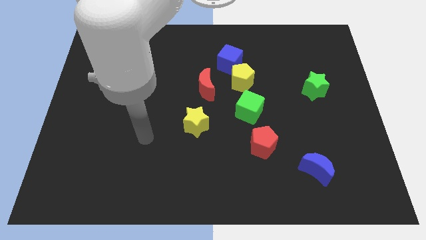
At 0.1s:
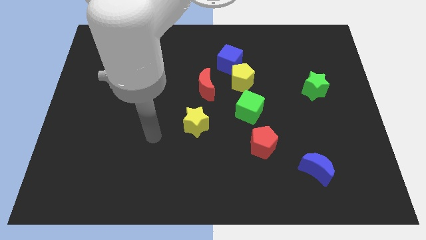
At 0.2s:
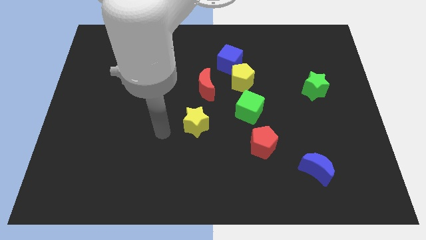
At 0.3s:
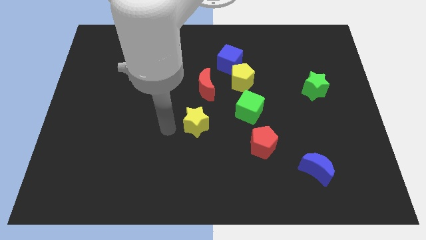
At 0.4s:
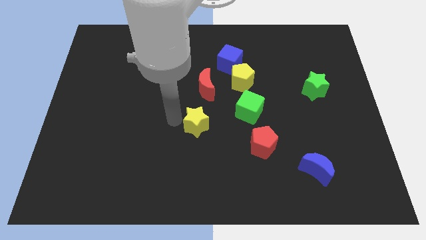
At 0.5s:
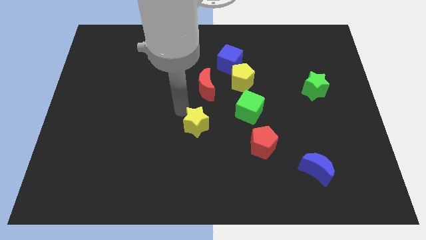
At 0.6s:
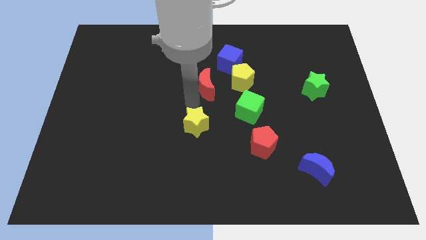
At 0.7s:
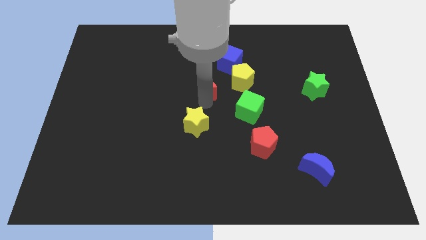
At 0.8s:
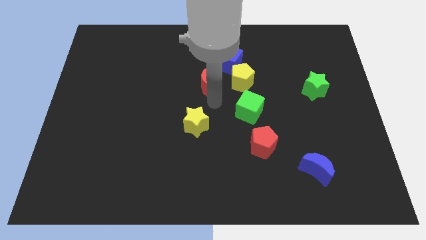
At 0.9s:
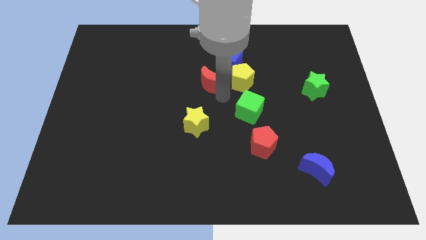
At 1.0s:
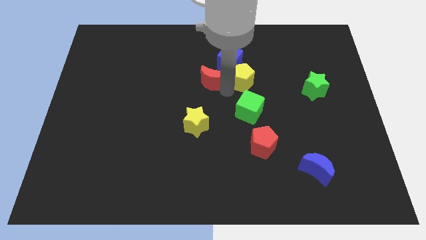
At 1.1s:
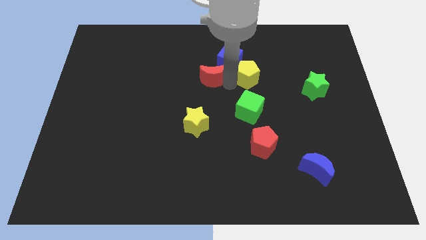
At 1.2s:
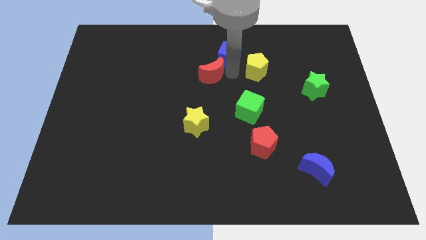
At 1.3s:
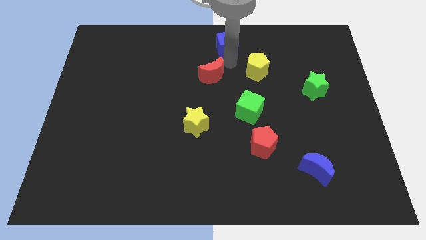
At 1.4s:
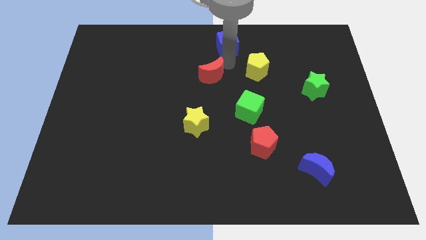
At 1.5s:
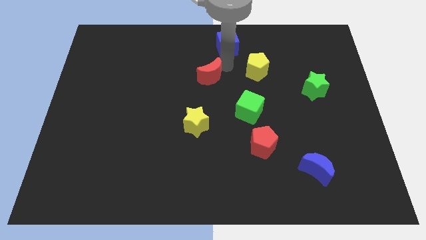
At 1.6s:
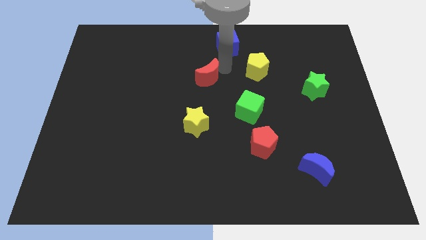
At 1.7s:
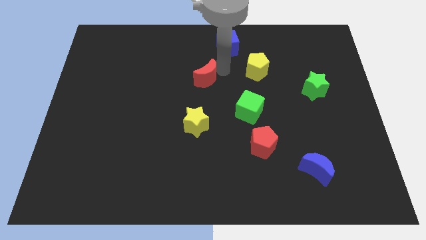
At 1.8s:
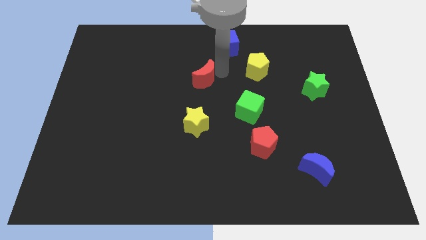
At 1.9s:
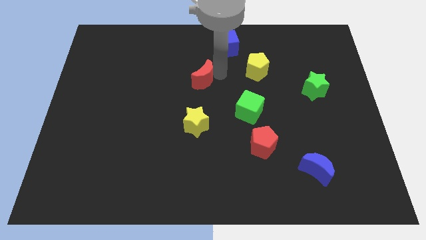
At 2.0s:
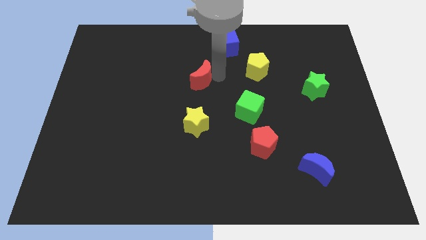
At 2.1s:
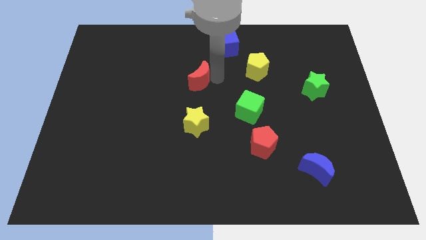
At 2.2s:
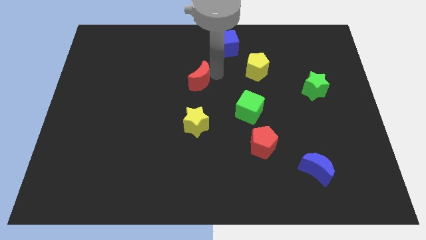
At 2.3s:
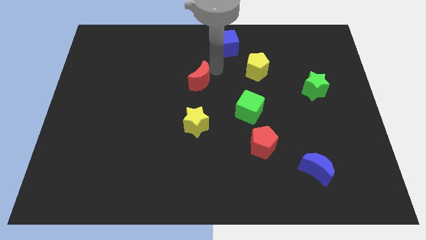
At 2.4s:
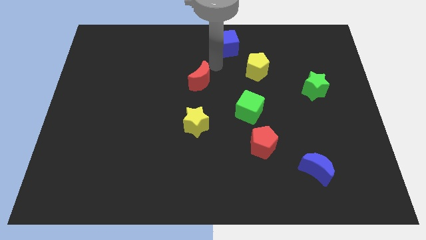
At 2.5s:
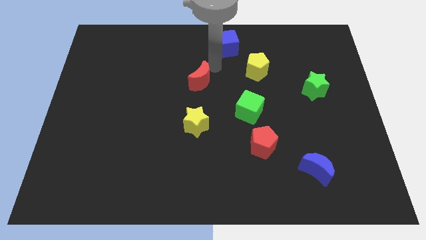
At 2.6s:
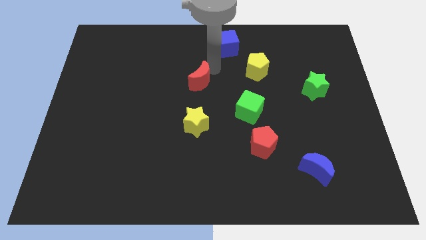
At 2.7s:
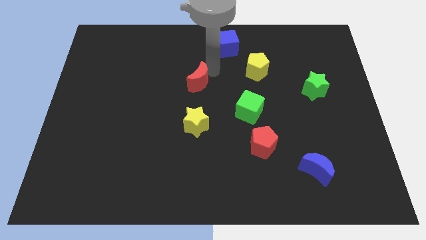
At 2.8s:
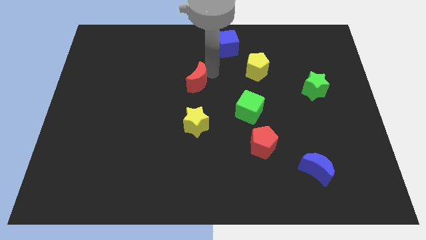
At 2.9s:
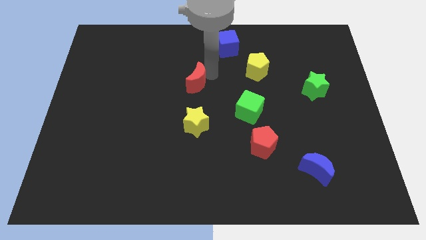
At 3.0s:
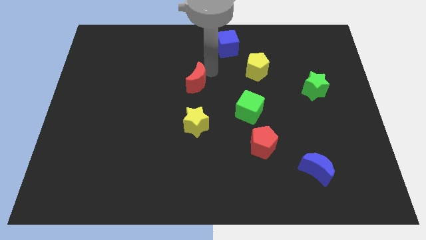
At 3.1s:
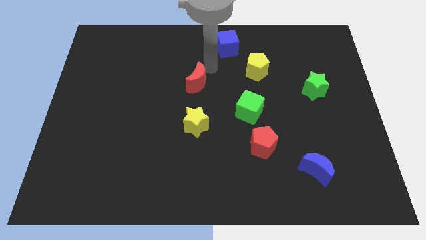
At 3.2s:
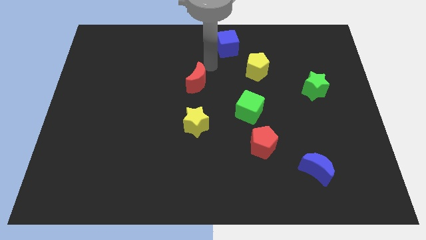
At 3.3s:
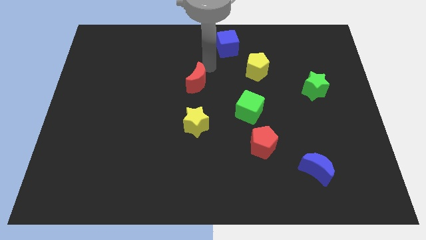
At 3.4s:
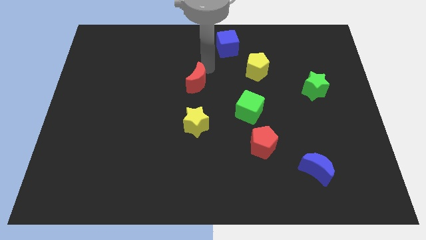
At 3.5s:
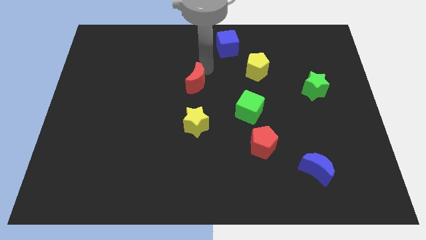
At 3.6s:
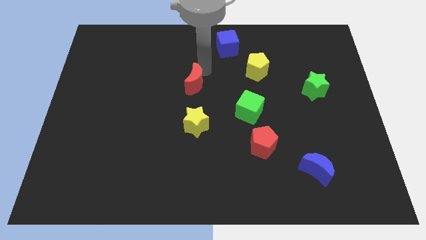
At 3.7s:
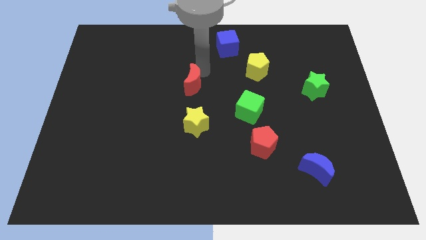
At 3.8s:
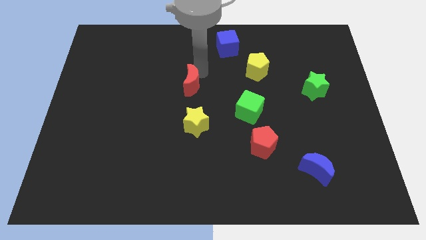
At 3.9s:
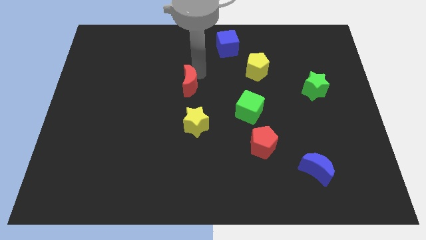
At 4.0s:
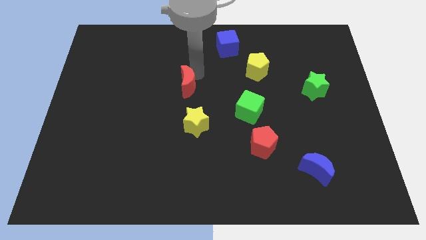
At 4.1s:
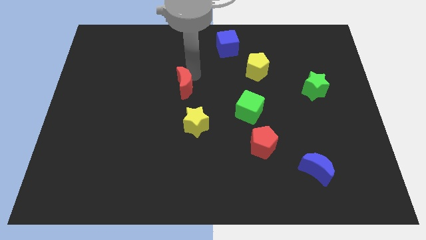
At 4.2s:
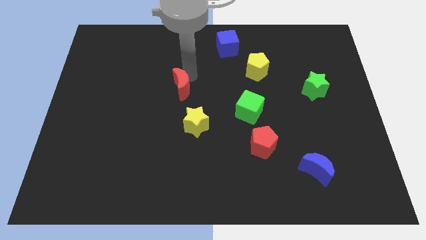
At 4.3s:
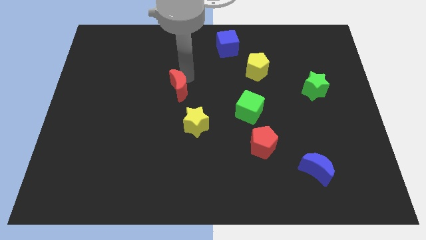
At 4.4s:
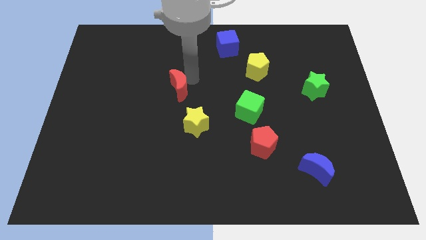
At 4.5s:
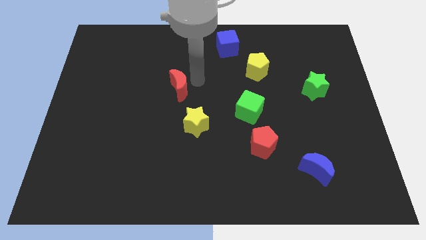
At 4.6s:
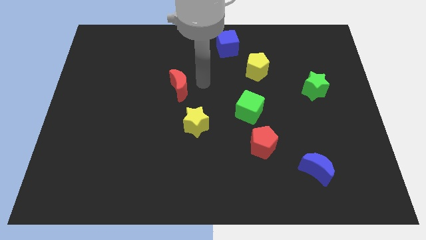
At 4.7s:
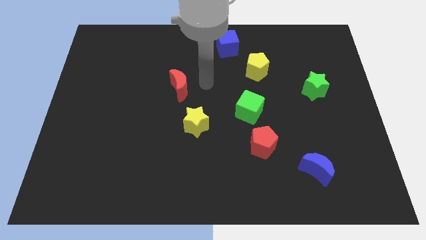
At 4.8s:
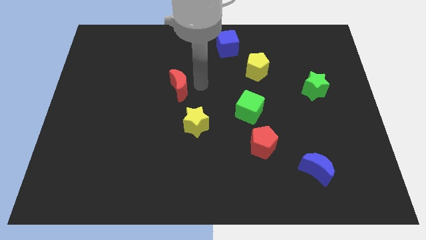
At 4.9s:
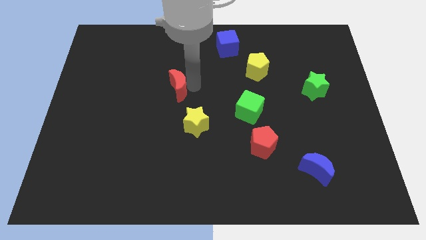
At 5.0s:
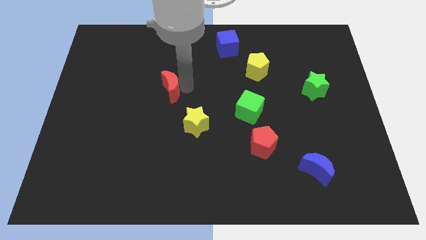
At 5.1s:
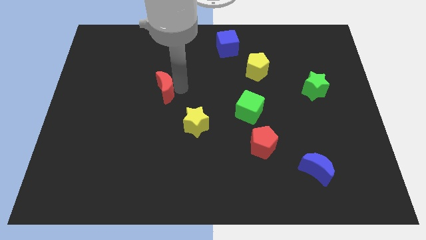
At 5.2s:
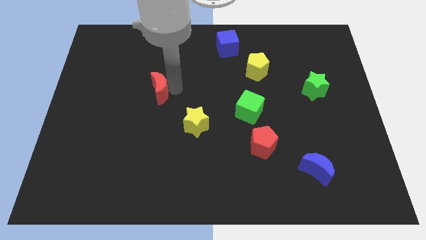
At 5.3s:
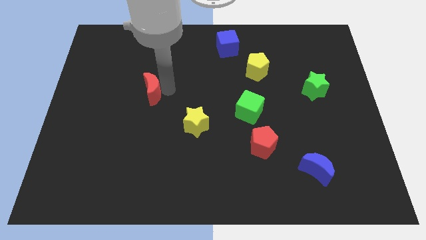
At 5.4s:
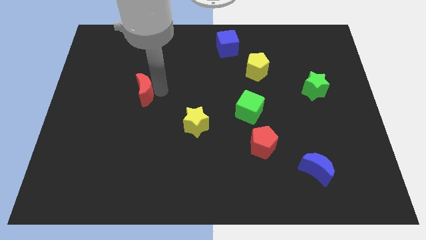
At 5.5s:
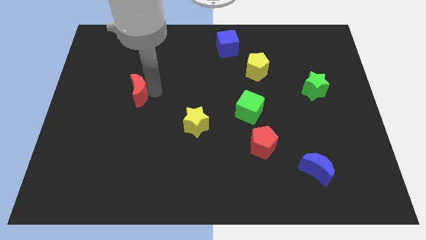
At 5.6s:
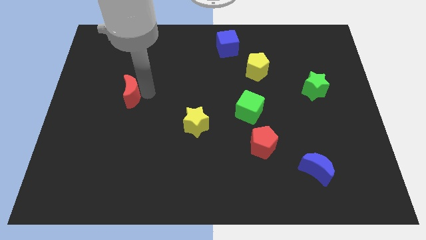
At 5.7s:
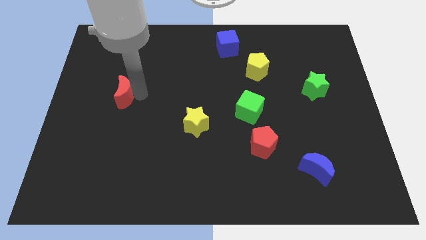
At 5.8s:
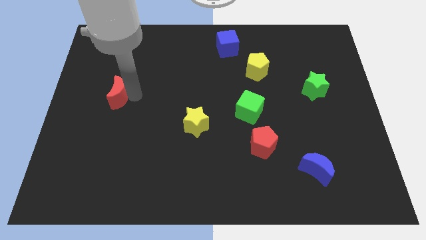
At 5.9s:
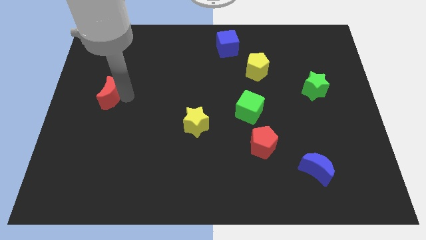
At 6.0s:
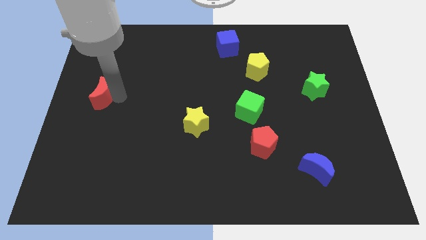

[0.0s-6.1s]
push the red moon to the left side
